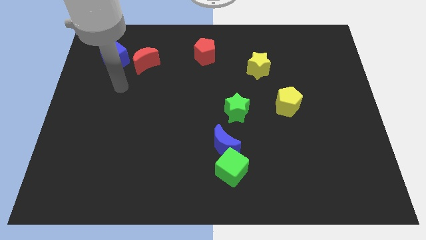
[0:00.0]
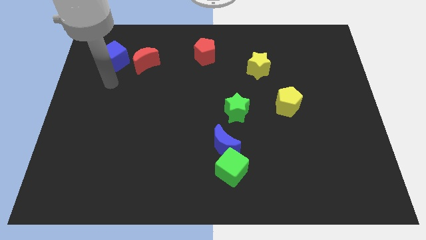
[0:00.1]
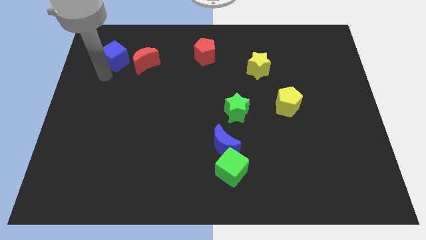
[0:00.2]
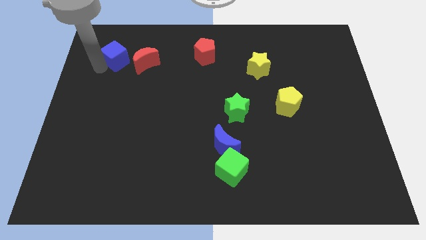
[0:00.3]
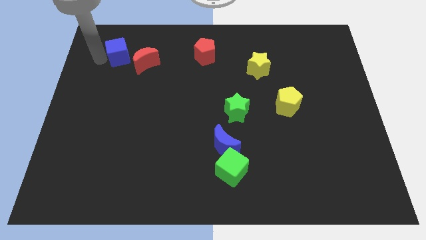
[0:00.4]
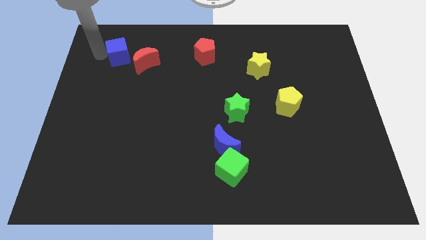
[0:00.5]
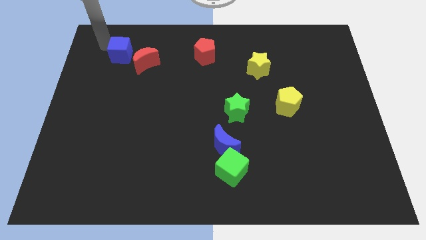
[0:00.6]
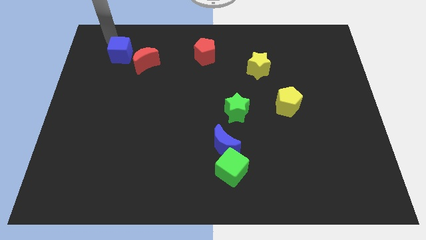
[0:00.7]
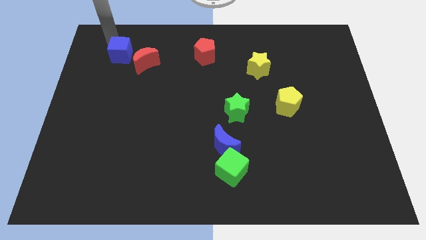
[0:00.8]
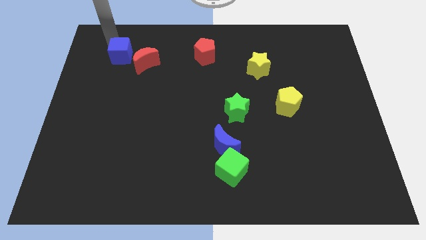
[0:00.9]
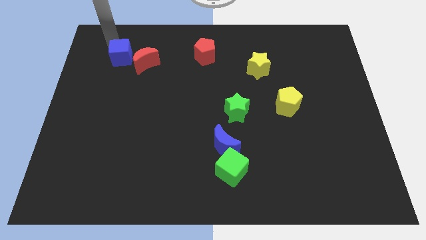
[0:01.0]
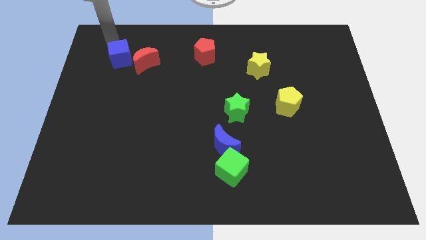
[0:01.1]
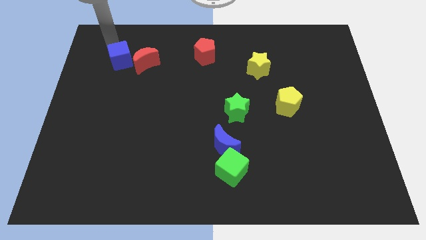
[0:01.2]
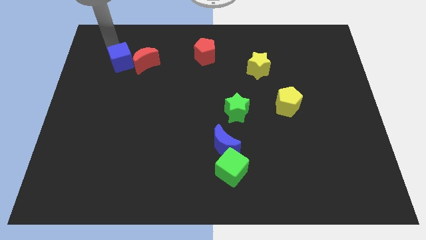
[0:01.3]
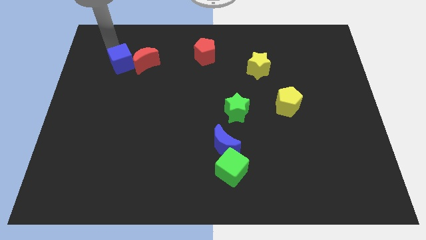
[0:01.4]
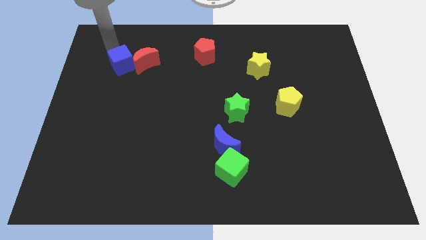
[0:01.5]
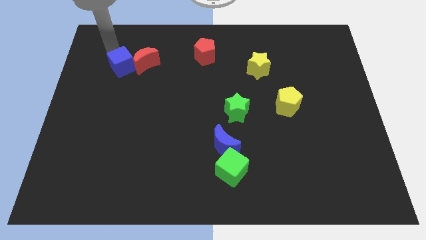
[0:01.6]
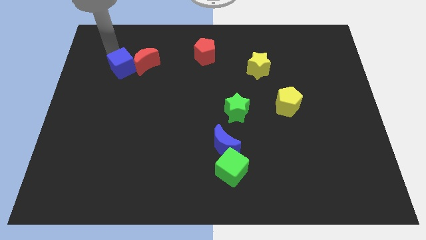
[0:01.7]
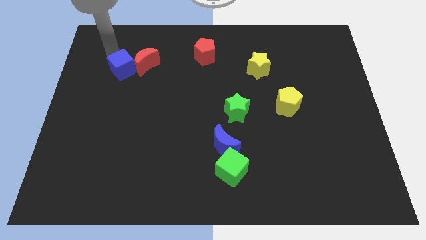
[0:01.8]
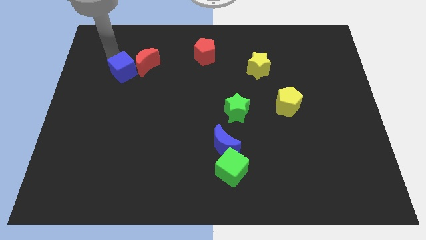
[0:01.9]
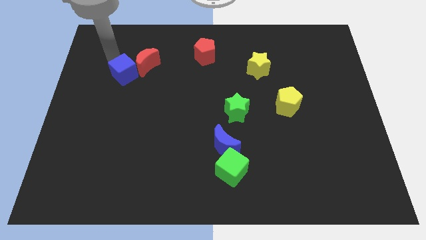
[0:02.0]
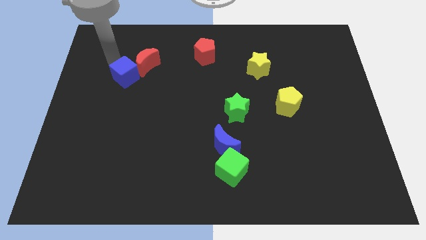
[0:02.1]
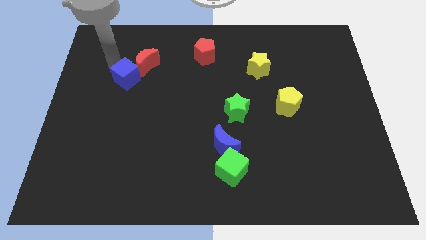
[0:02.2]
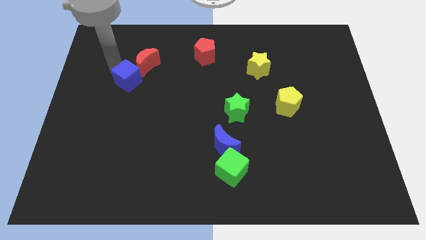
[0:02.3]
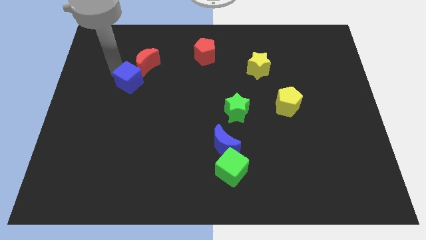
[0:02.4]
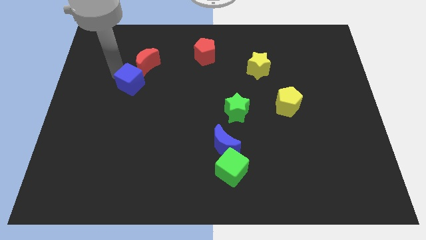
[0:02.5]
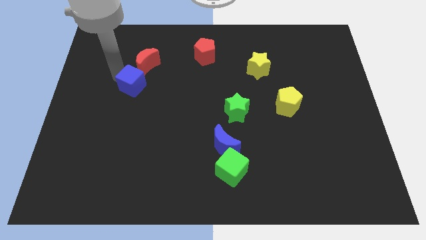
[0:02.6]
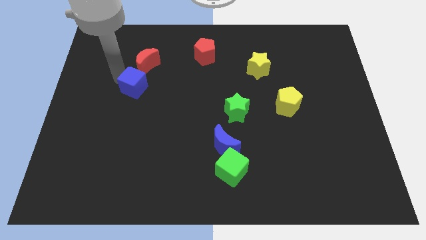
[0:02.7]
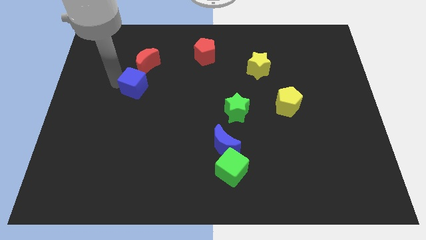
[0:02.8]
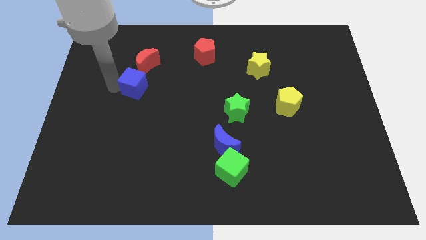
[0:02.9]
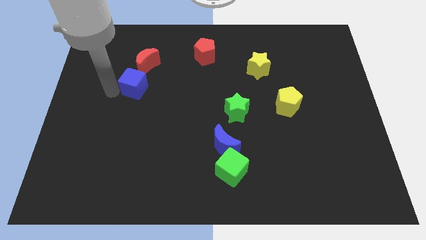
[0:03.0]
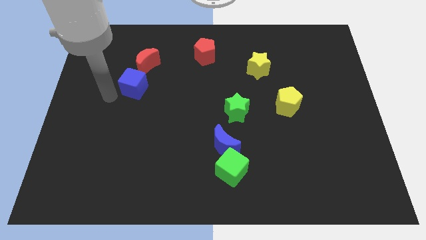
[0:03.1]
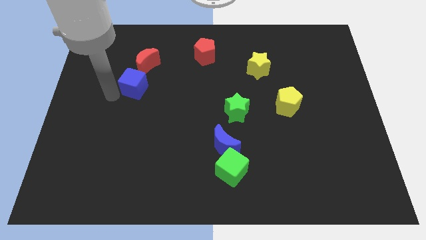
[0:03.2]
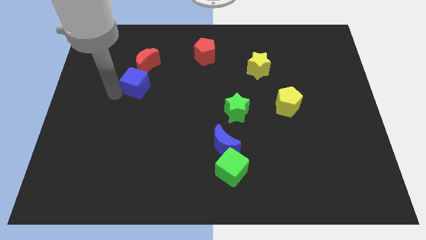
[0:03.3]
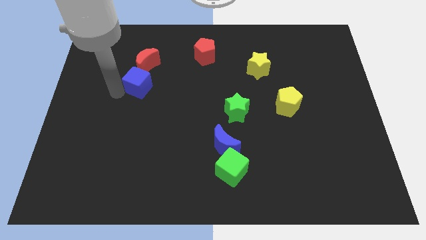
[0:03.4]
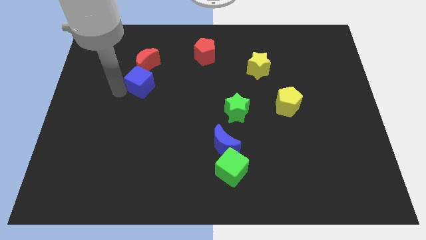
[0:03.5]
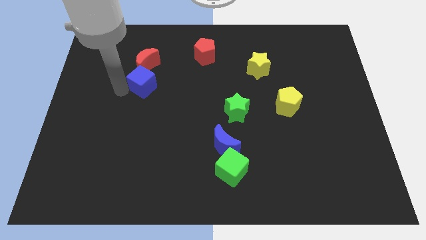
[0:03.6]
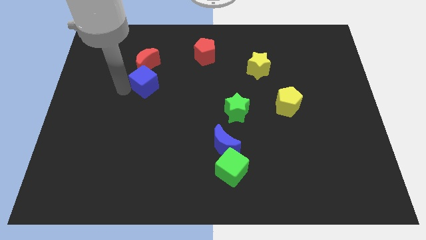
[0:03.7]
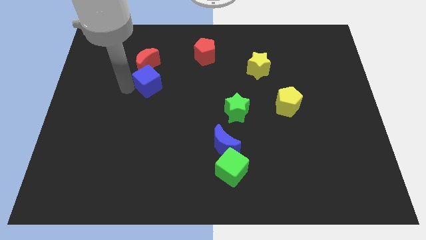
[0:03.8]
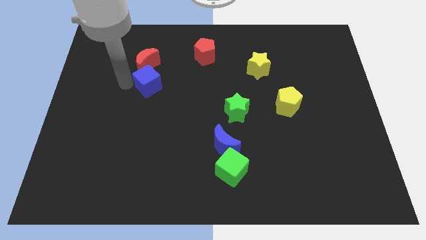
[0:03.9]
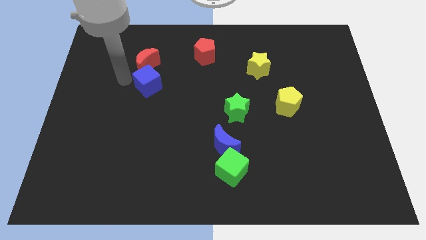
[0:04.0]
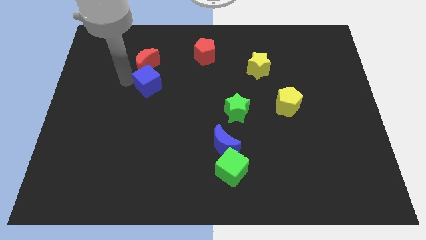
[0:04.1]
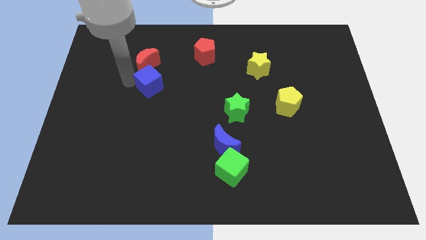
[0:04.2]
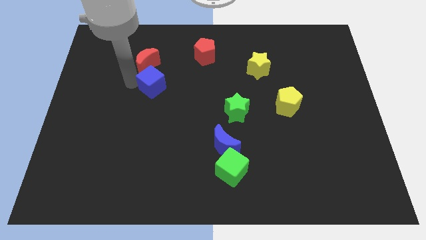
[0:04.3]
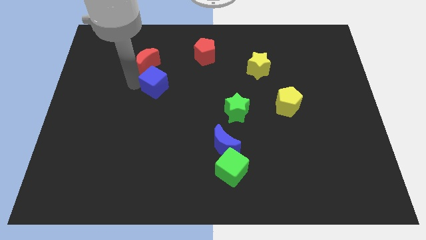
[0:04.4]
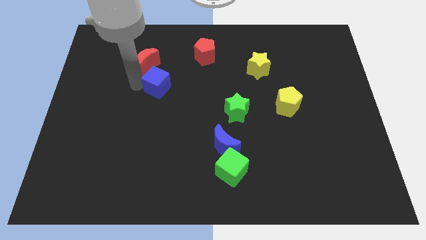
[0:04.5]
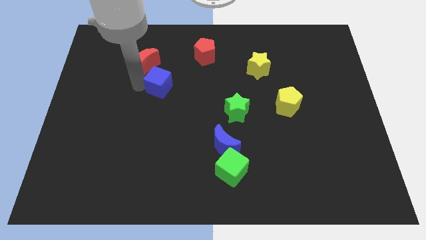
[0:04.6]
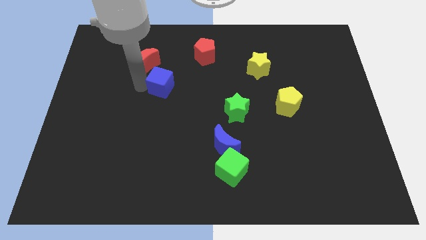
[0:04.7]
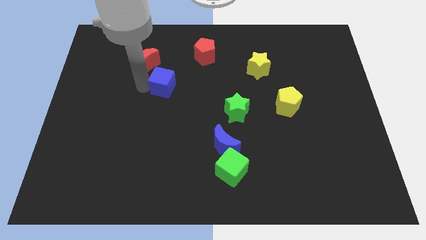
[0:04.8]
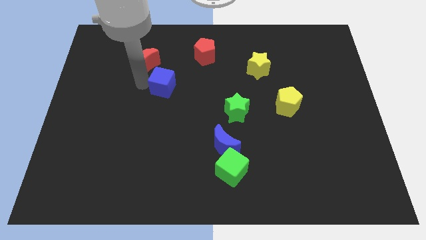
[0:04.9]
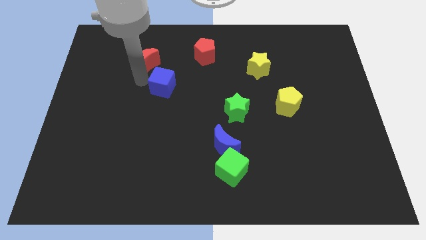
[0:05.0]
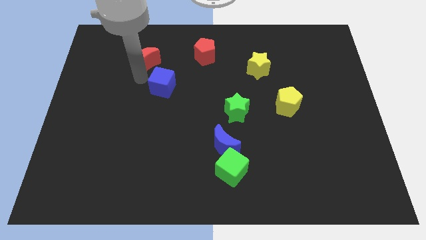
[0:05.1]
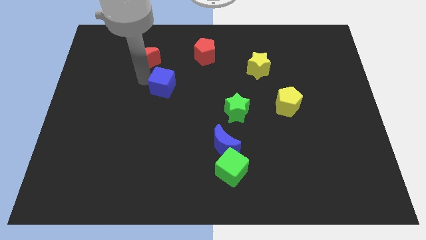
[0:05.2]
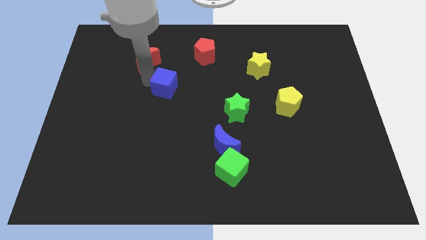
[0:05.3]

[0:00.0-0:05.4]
move the blue cube to the middle

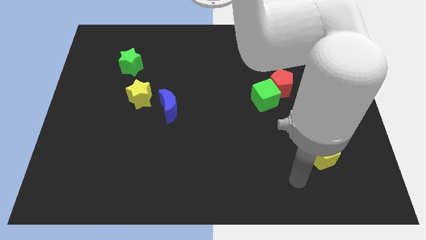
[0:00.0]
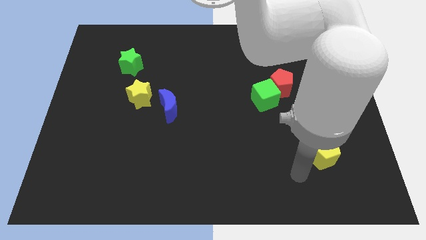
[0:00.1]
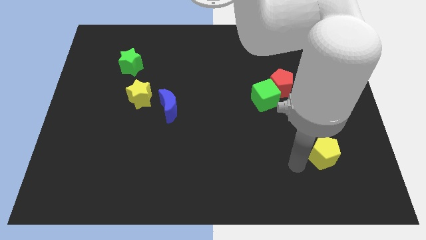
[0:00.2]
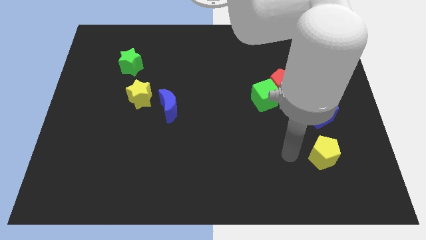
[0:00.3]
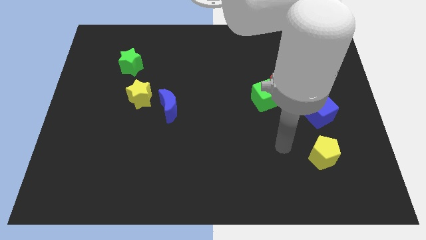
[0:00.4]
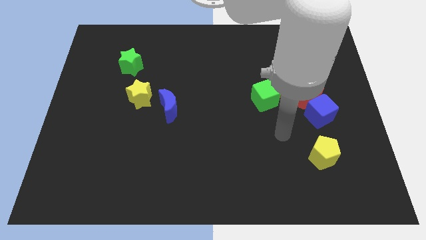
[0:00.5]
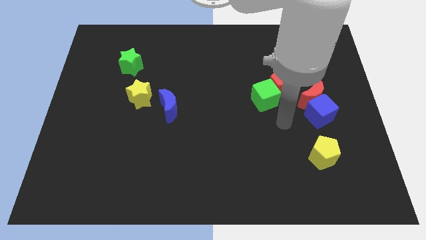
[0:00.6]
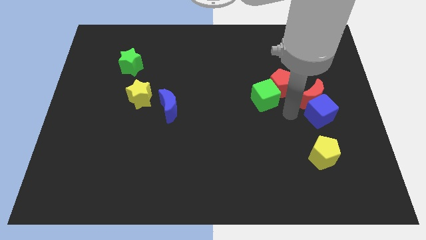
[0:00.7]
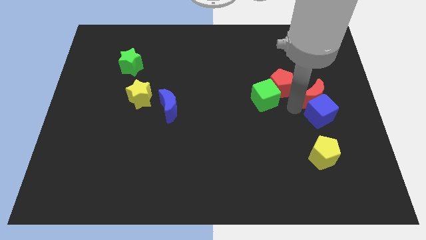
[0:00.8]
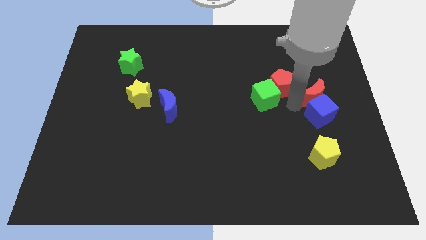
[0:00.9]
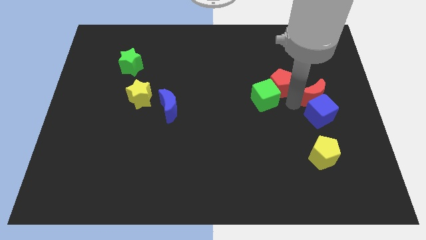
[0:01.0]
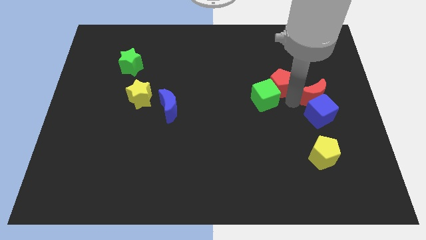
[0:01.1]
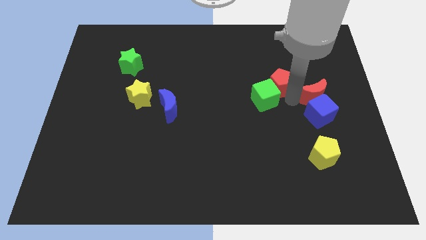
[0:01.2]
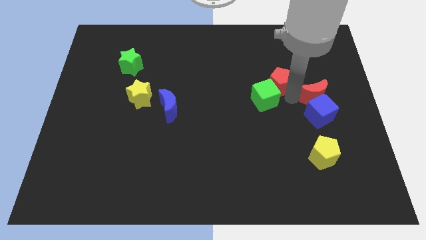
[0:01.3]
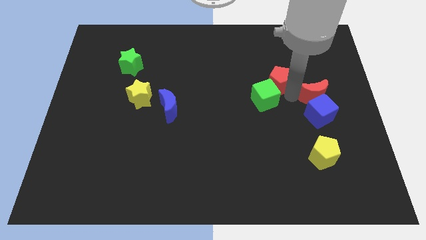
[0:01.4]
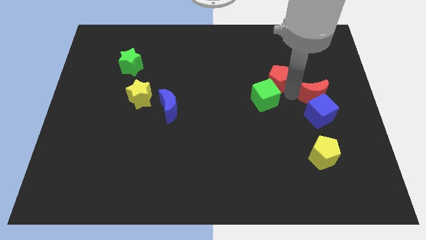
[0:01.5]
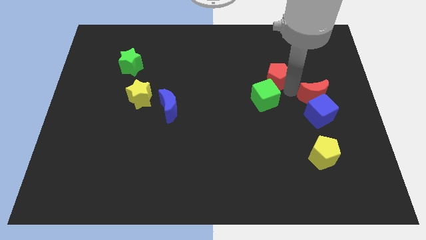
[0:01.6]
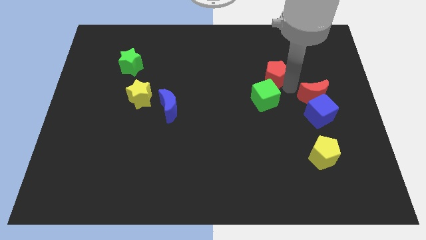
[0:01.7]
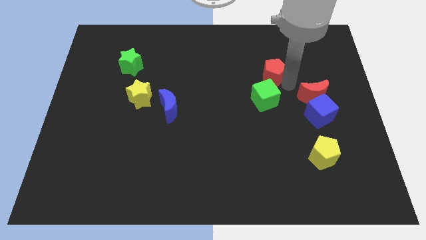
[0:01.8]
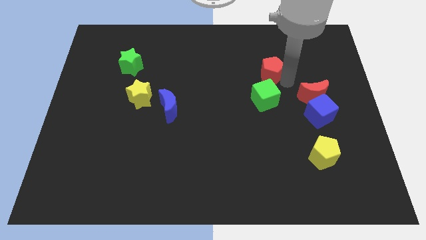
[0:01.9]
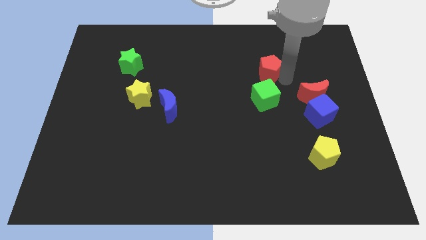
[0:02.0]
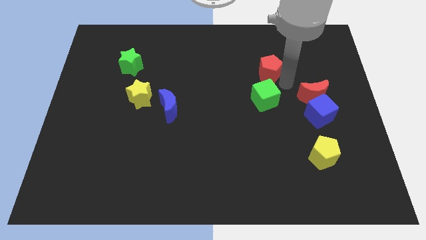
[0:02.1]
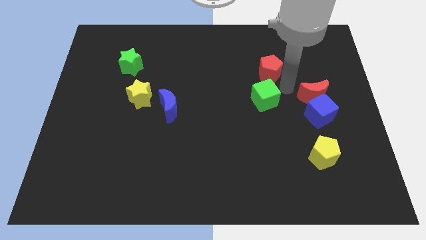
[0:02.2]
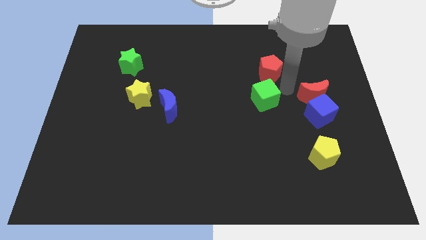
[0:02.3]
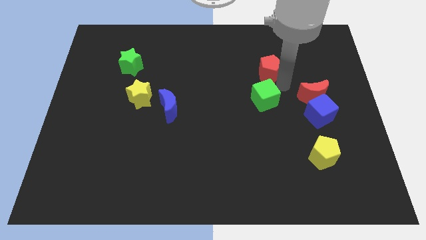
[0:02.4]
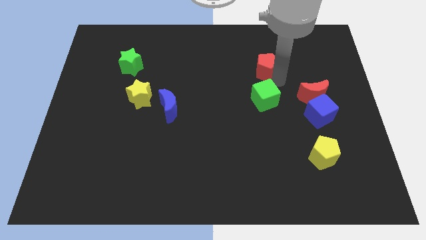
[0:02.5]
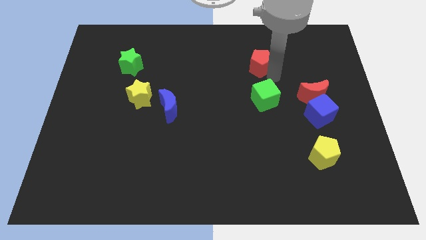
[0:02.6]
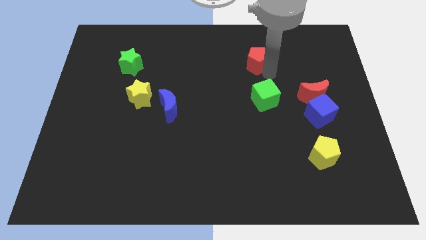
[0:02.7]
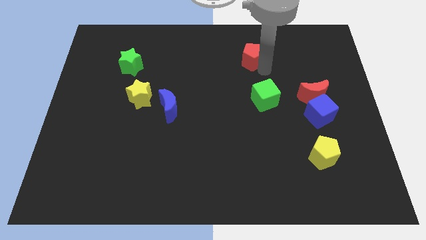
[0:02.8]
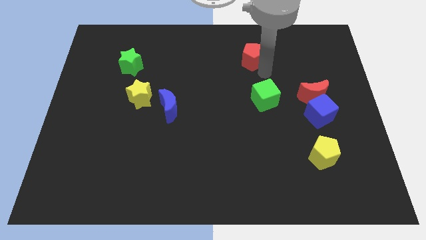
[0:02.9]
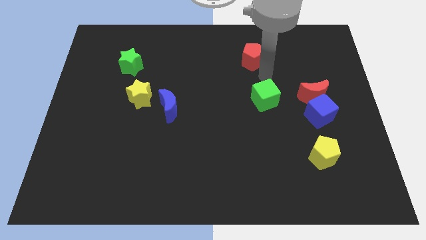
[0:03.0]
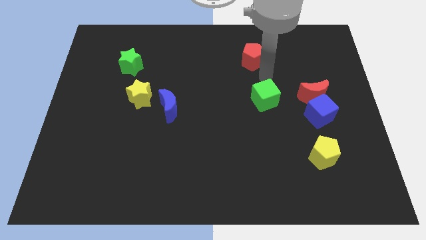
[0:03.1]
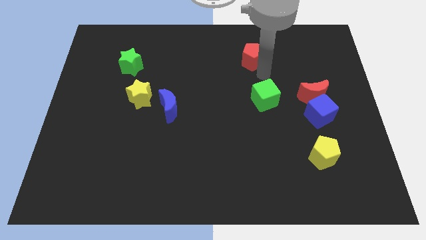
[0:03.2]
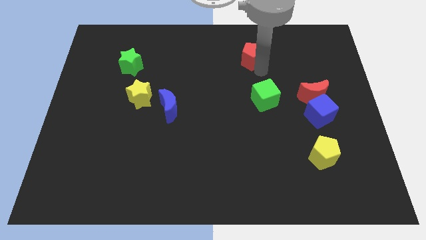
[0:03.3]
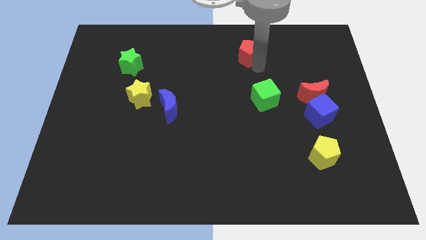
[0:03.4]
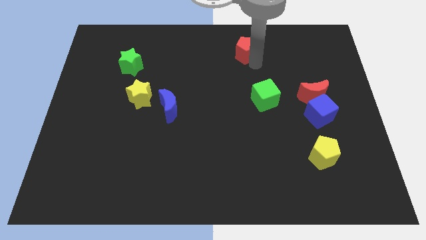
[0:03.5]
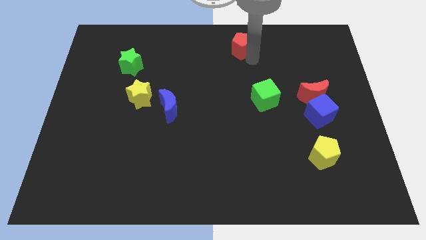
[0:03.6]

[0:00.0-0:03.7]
slide the red pentagon to the towards your base
